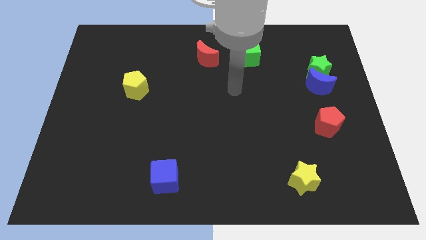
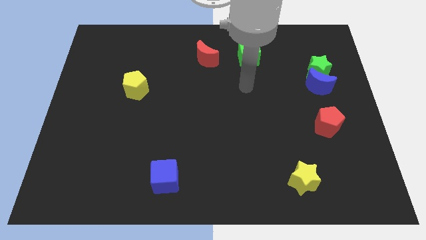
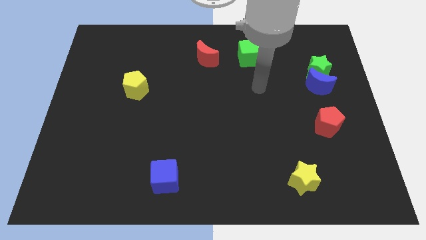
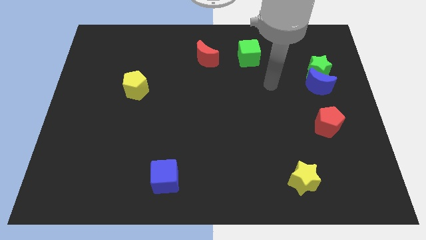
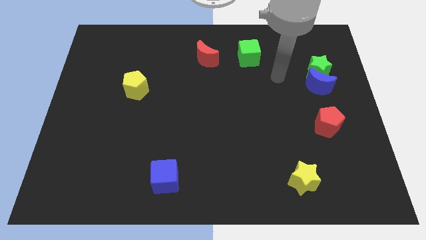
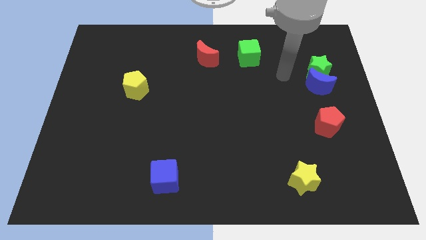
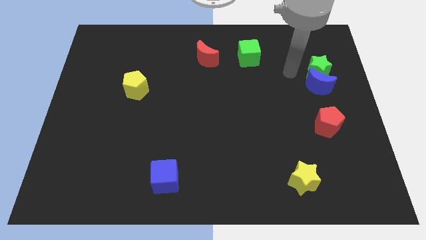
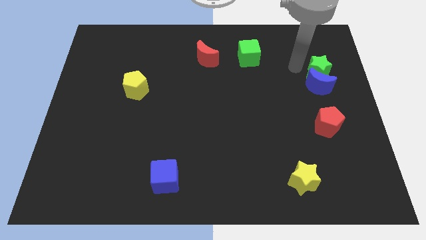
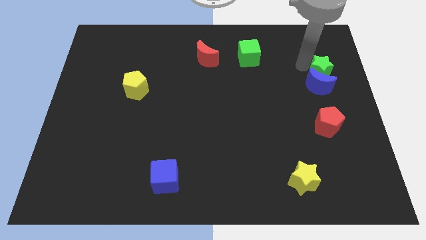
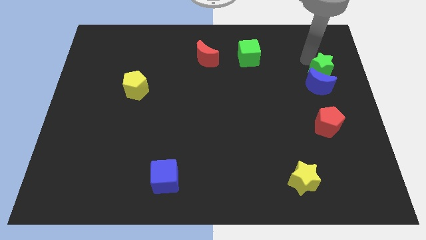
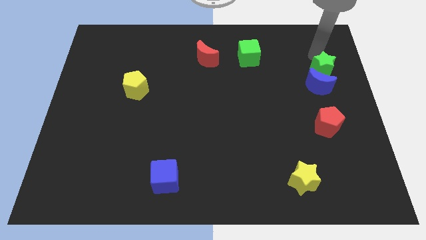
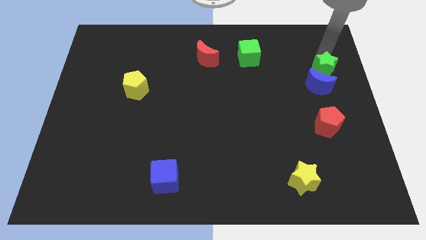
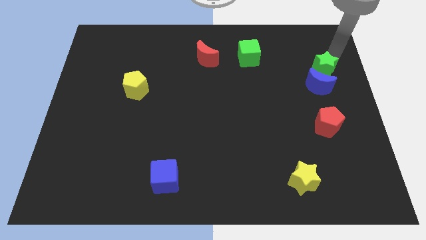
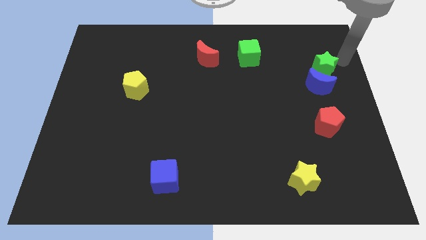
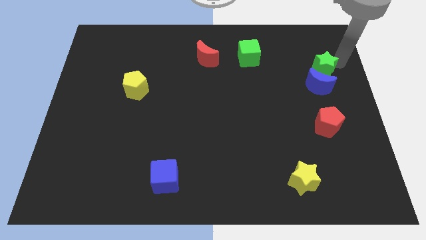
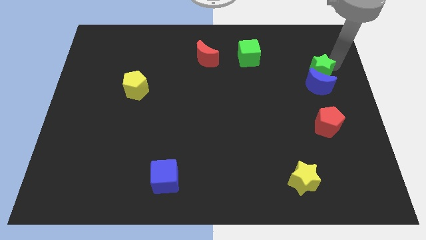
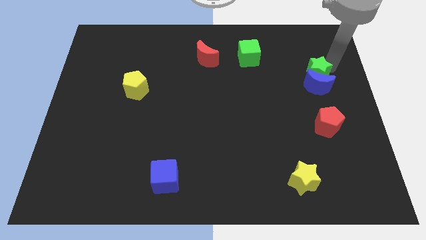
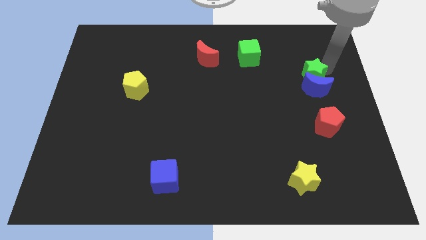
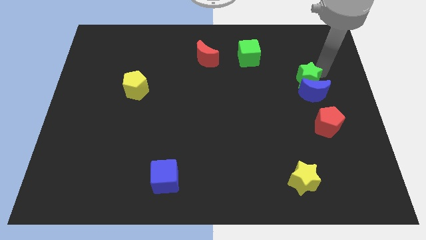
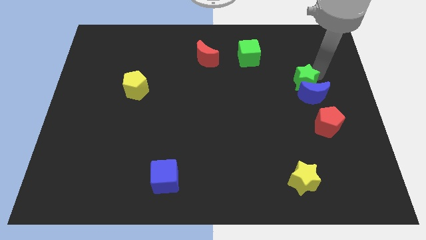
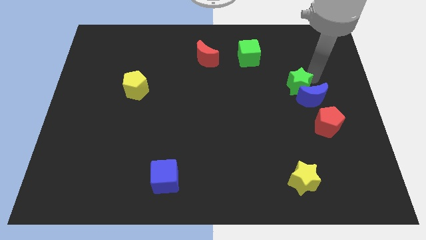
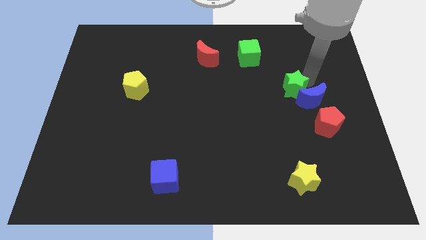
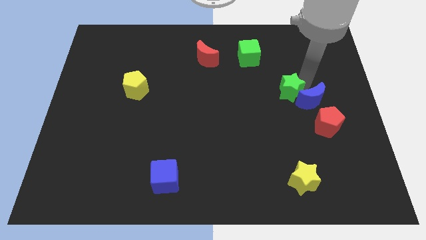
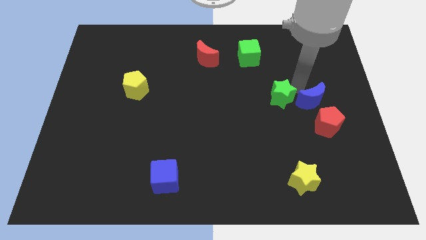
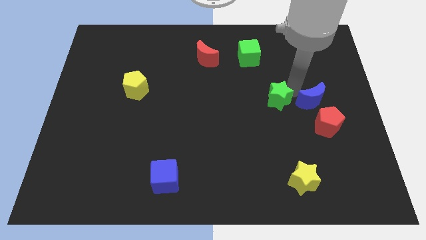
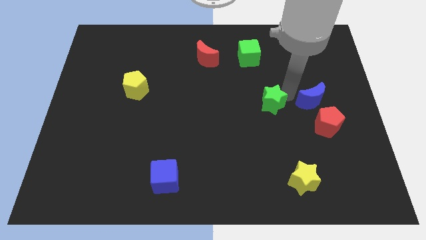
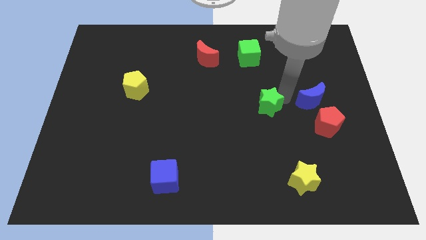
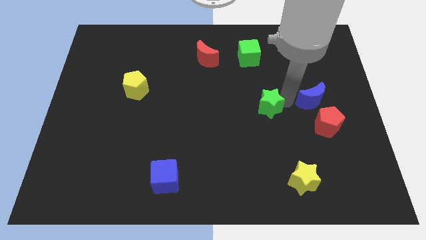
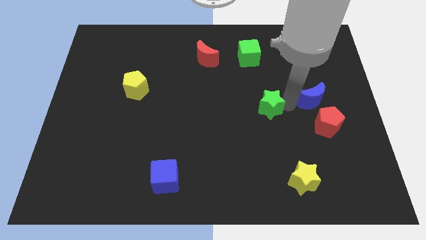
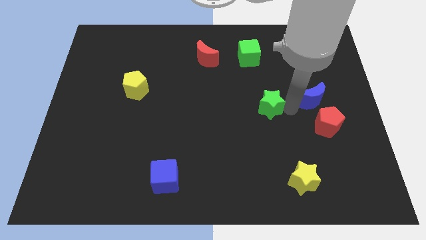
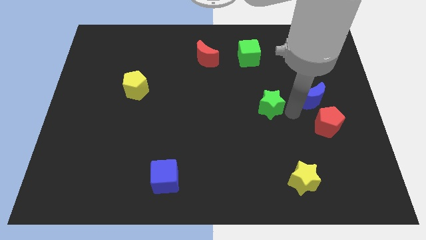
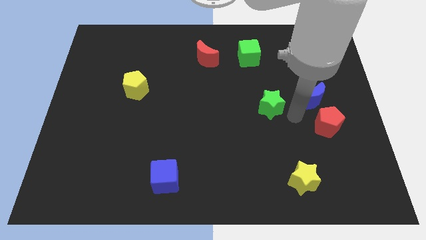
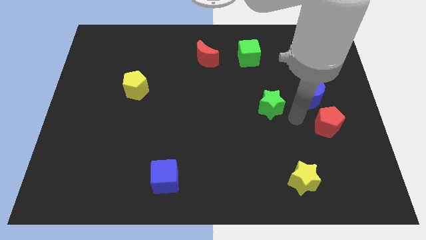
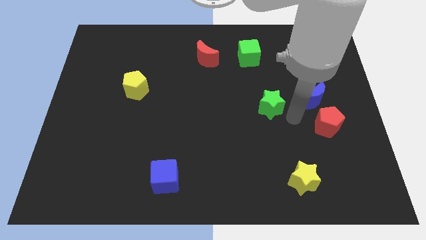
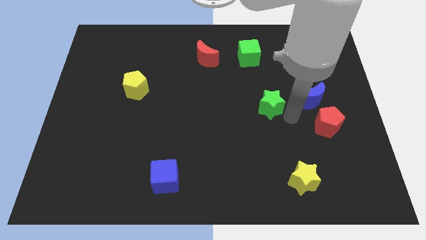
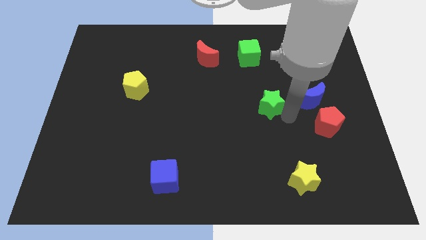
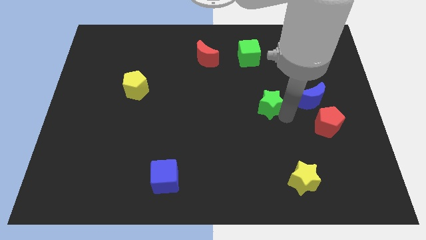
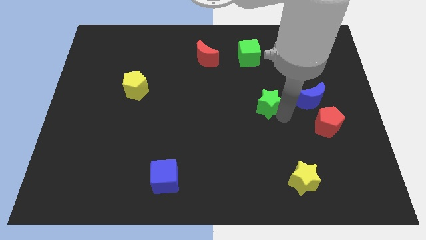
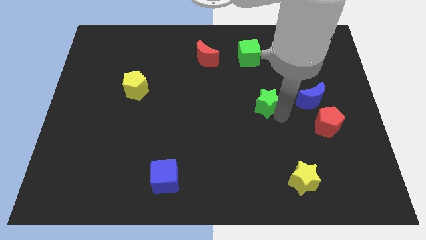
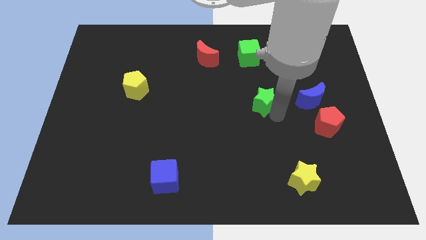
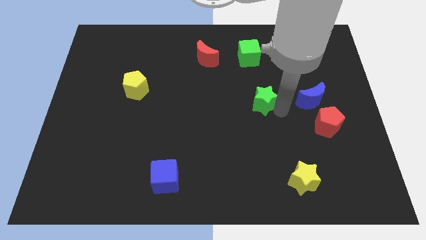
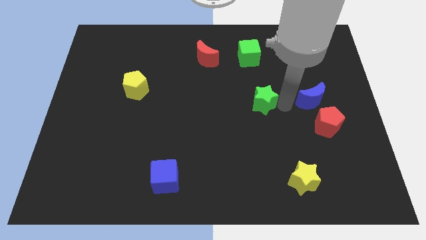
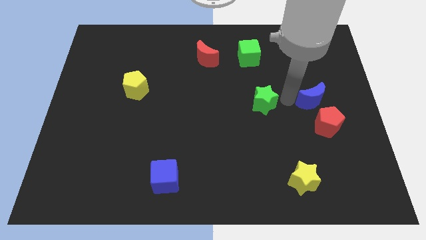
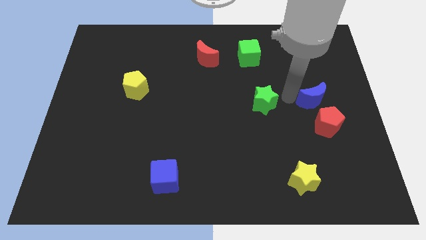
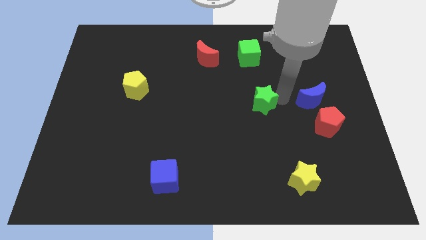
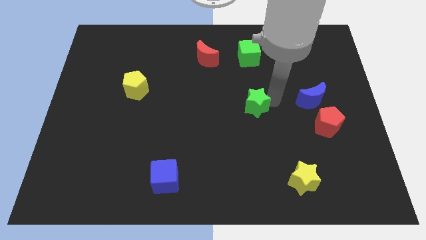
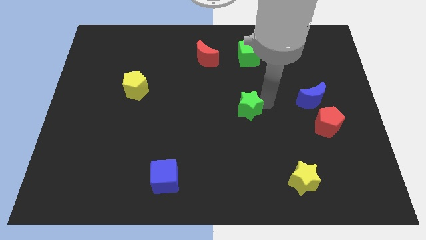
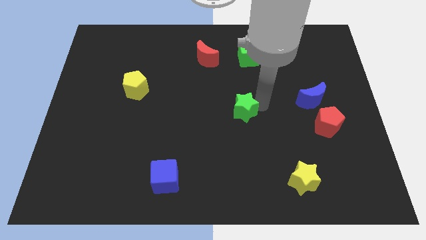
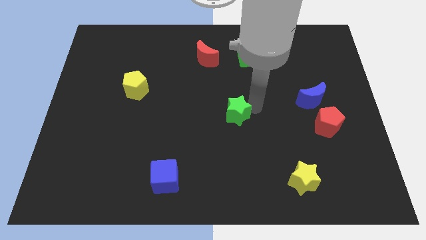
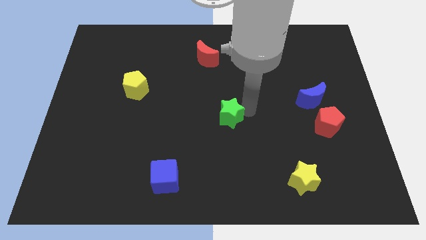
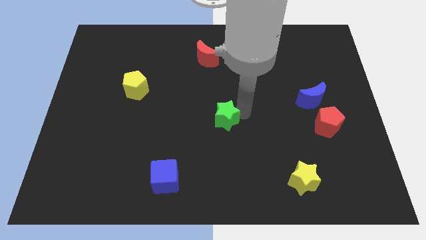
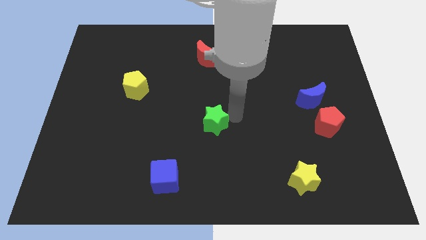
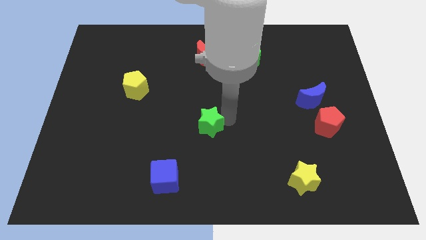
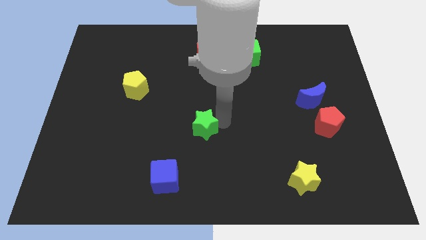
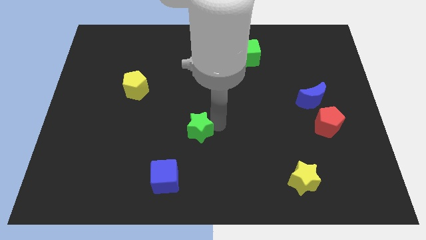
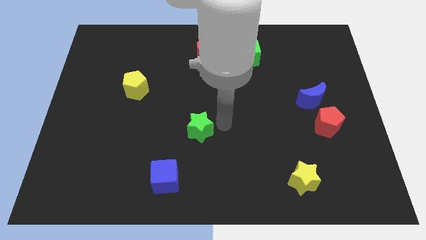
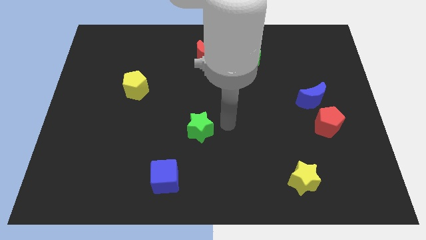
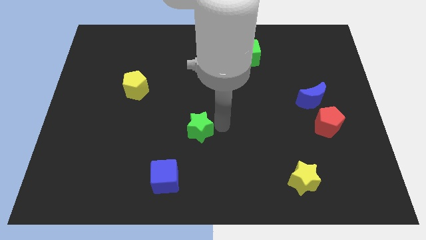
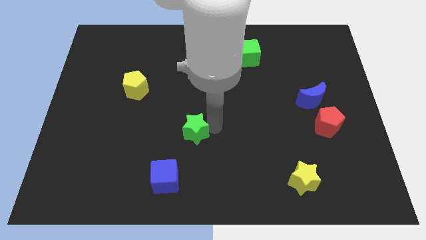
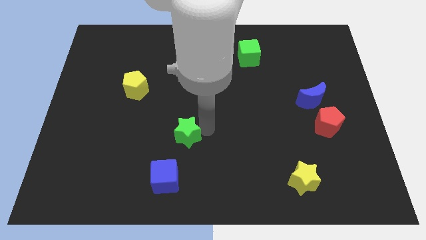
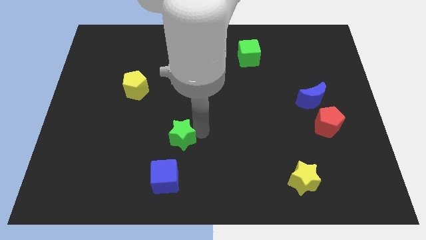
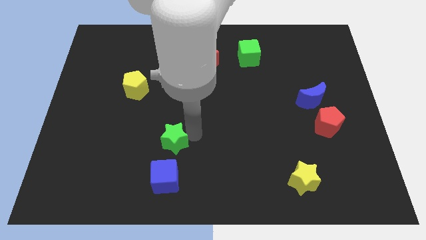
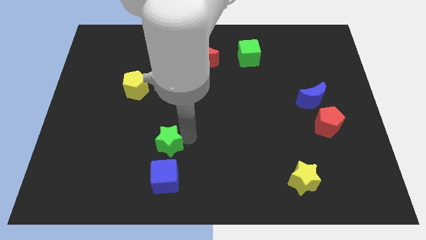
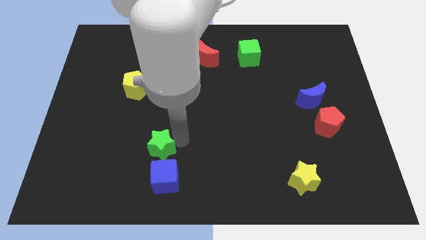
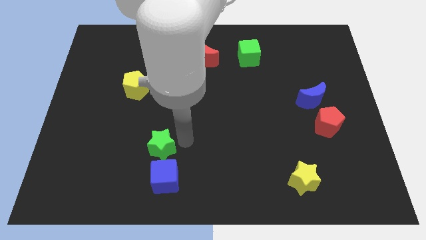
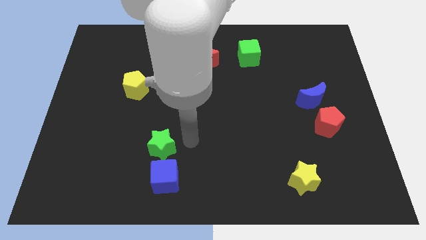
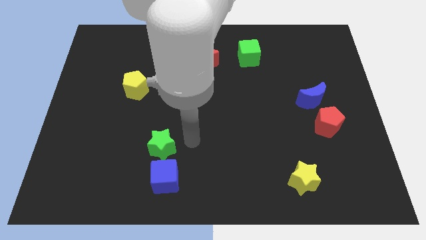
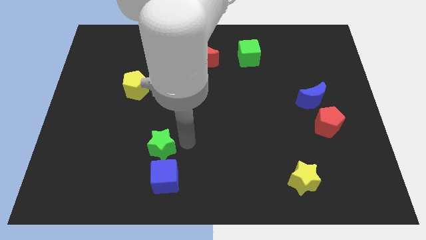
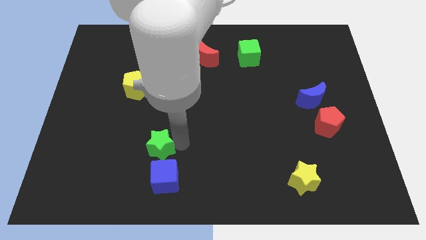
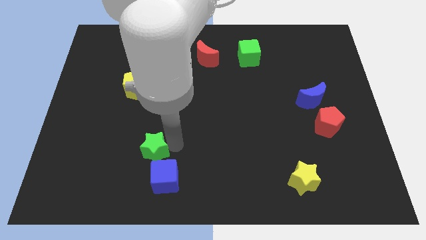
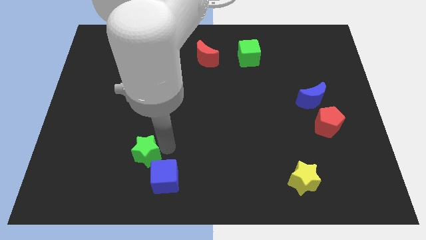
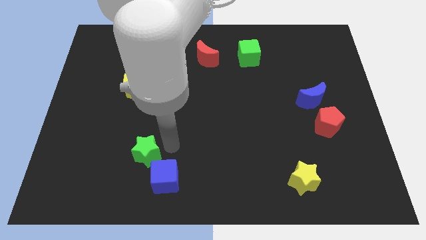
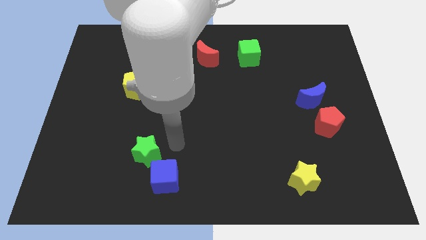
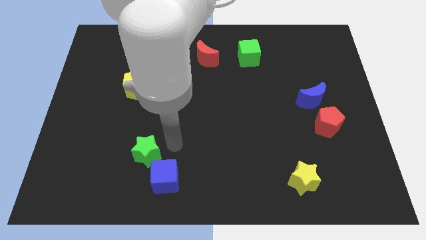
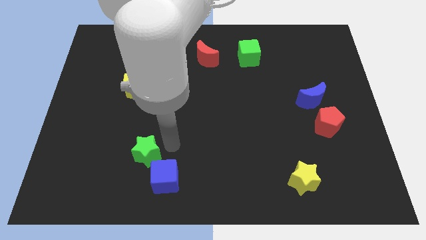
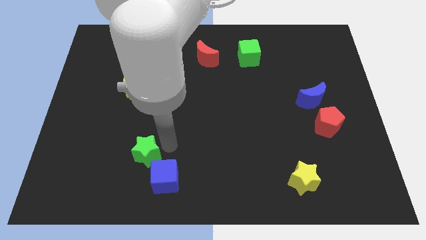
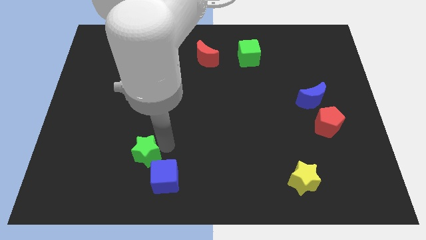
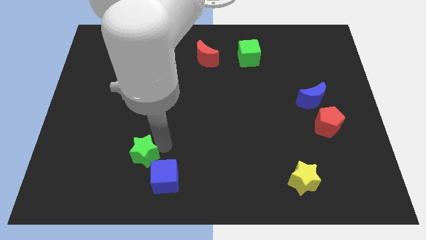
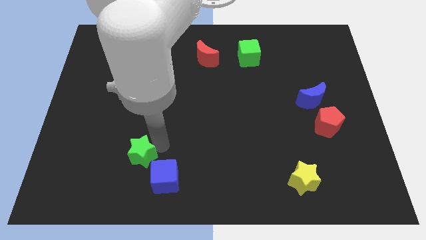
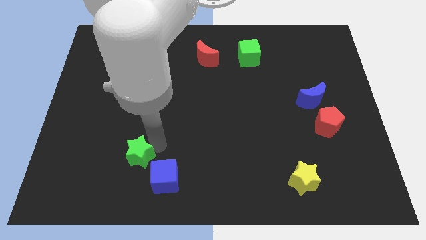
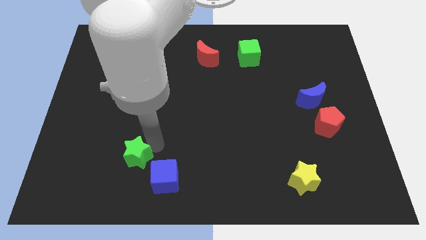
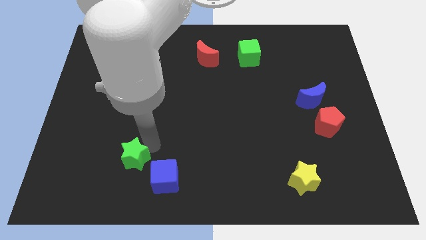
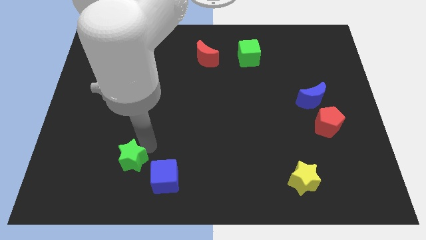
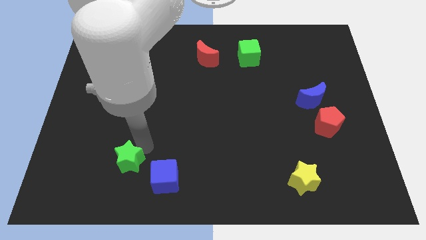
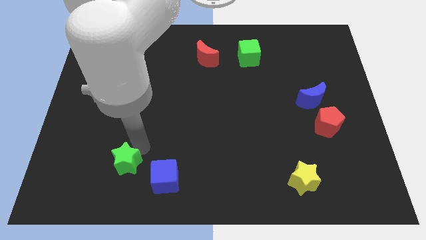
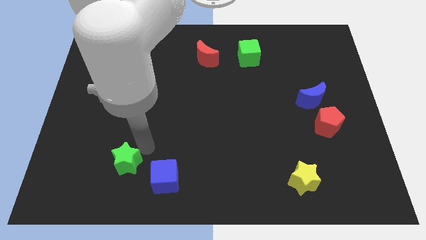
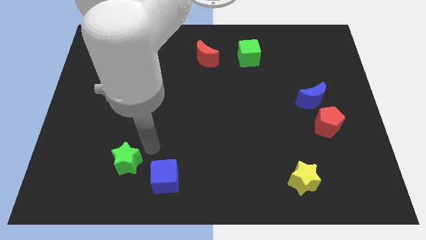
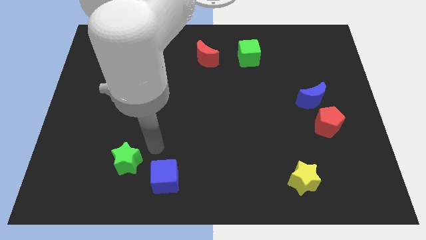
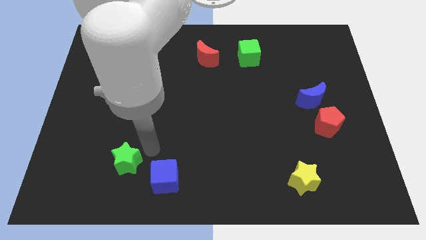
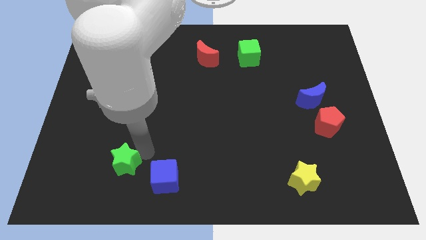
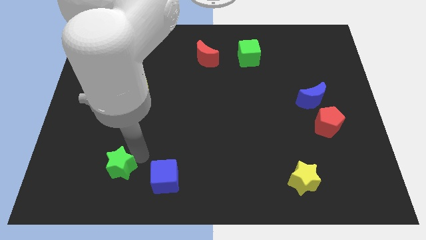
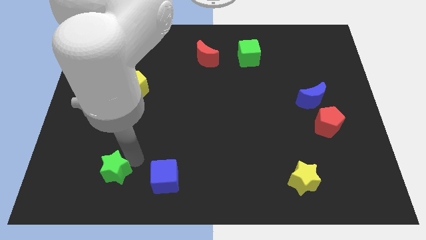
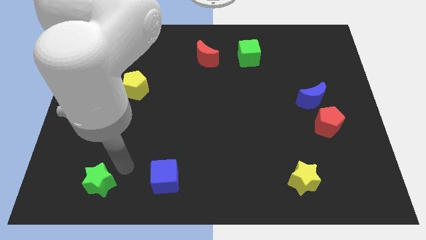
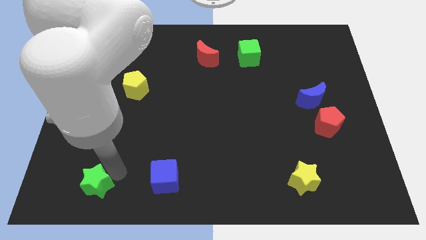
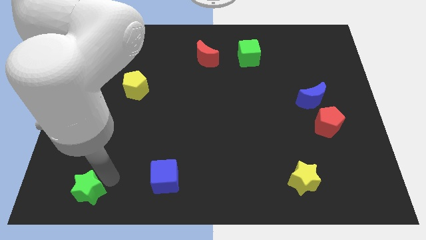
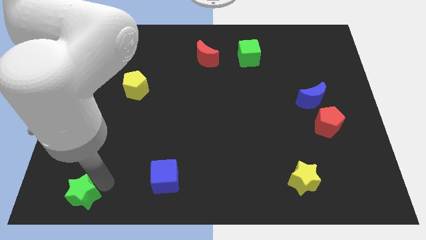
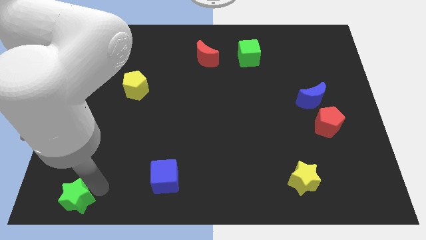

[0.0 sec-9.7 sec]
slide the green star to the lower left corner
